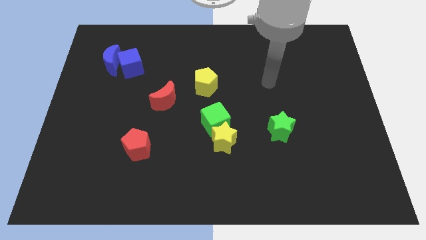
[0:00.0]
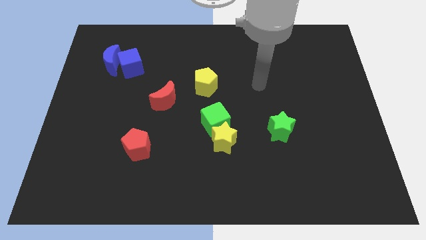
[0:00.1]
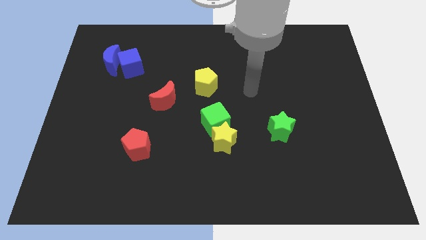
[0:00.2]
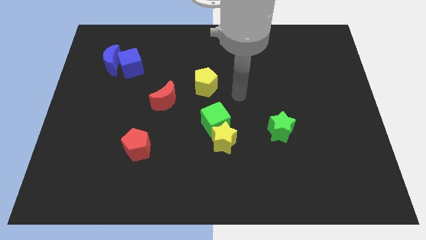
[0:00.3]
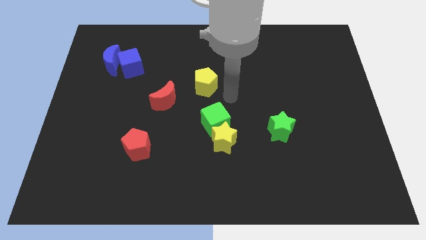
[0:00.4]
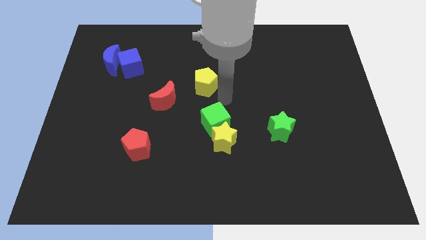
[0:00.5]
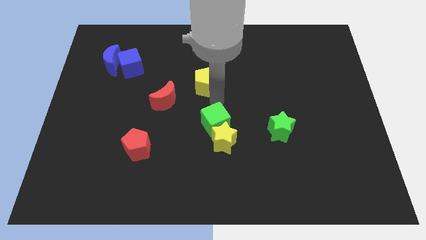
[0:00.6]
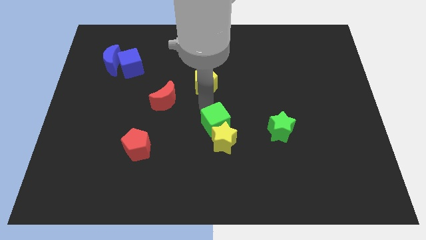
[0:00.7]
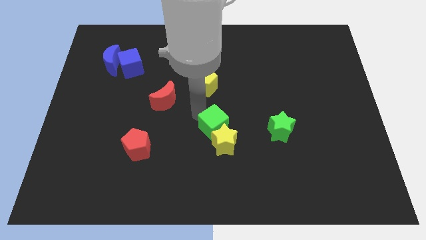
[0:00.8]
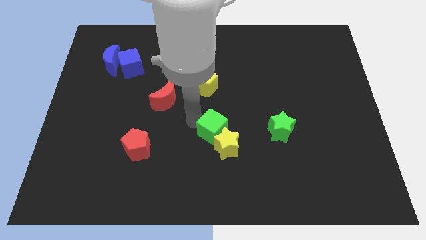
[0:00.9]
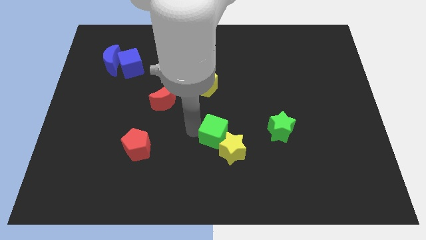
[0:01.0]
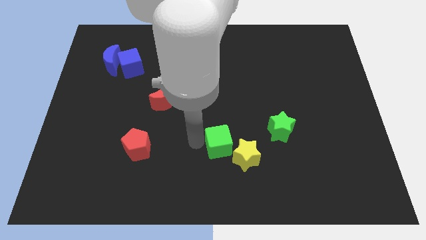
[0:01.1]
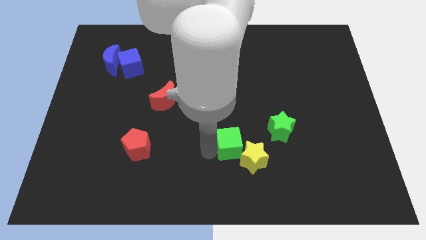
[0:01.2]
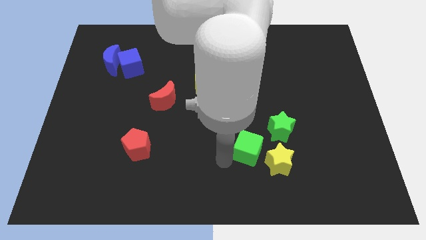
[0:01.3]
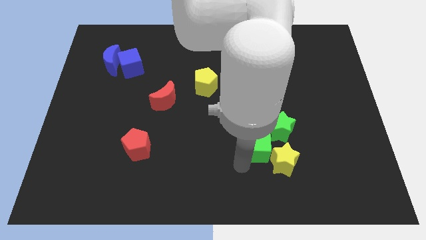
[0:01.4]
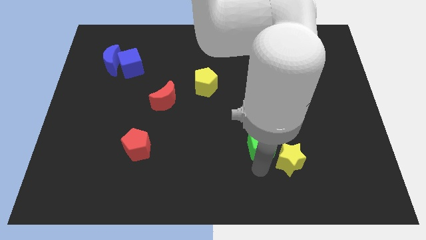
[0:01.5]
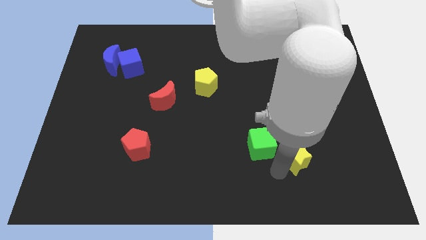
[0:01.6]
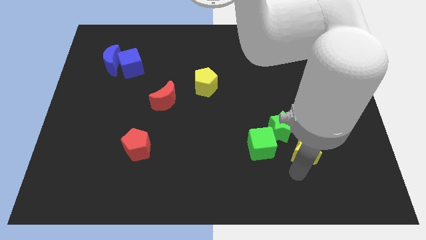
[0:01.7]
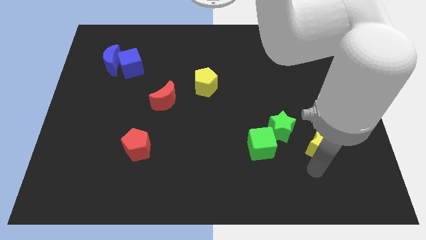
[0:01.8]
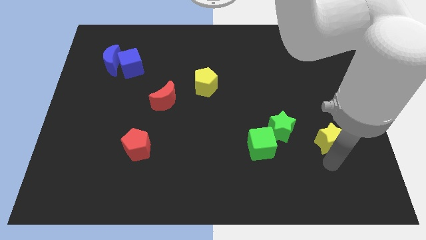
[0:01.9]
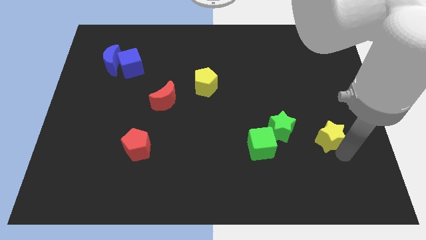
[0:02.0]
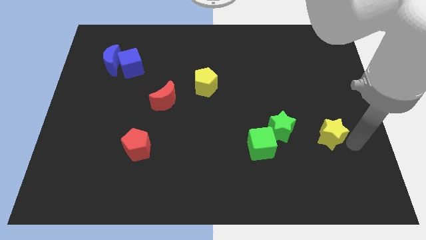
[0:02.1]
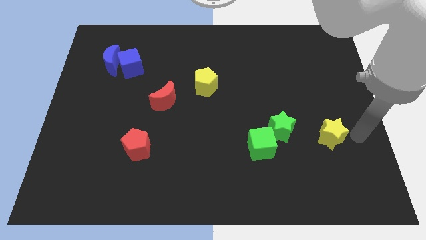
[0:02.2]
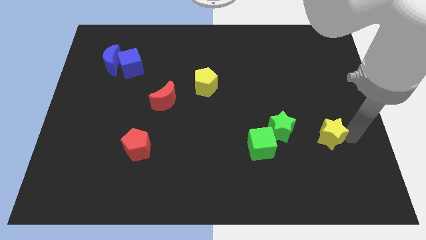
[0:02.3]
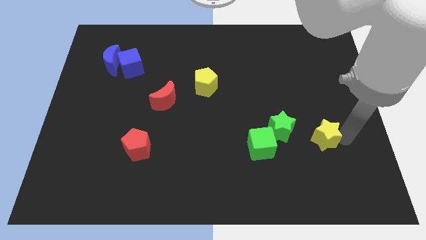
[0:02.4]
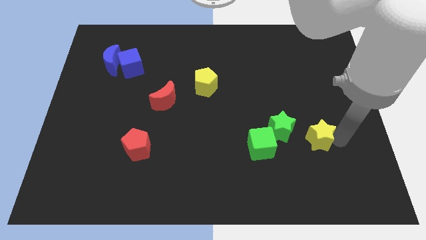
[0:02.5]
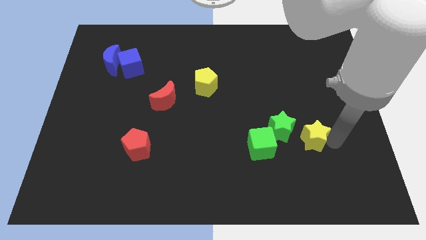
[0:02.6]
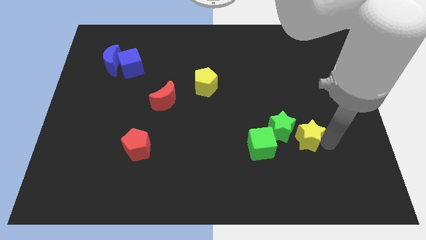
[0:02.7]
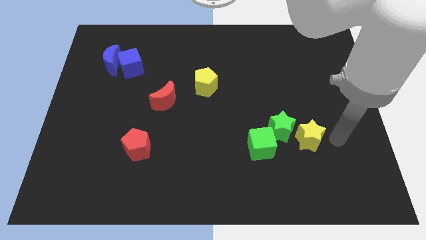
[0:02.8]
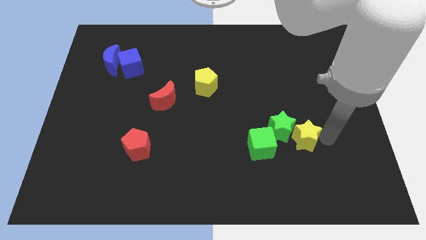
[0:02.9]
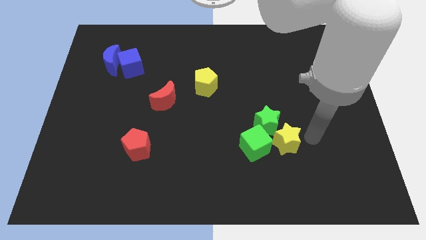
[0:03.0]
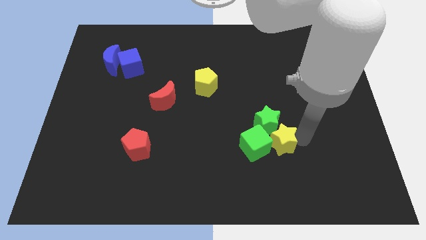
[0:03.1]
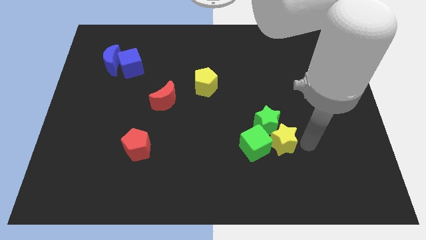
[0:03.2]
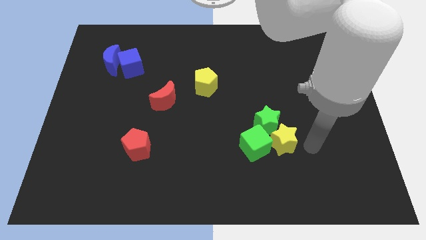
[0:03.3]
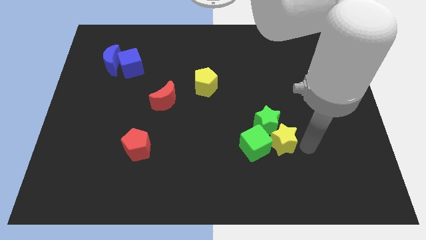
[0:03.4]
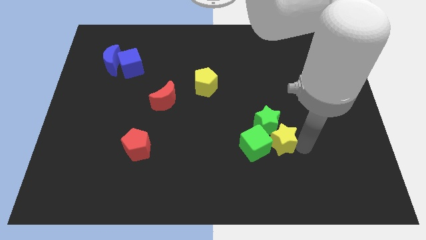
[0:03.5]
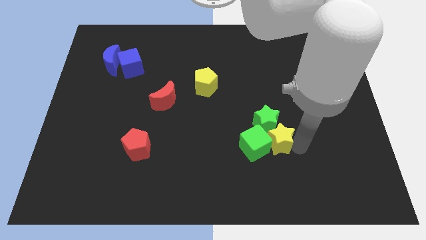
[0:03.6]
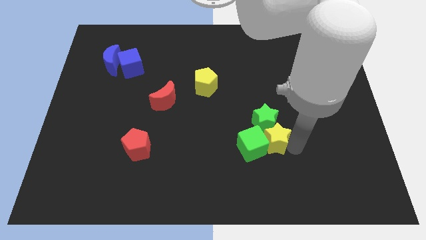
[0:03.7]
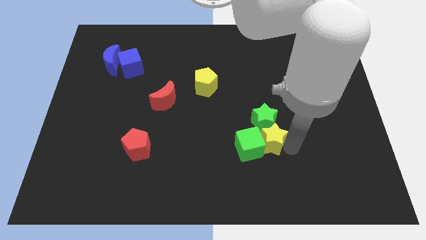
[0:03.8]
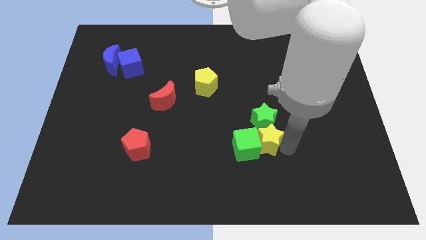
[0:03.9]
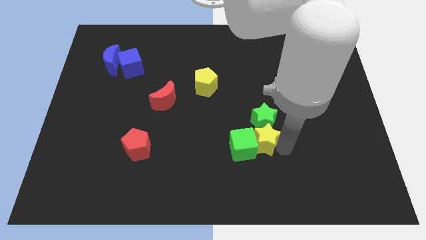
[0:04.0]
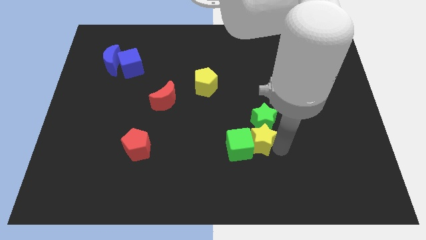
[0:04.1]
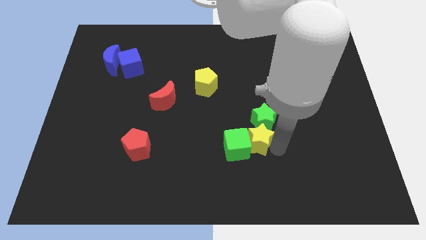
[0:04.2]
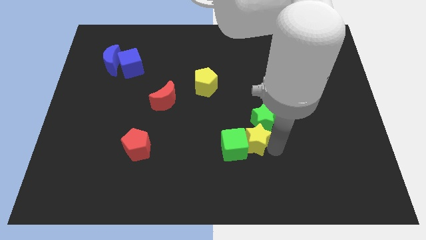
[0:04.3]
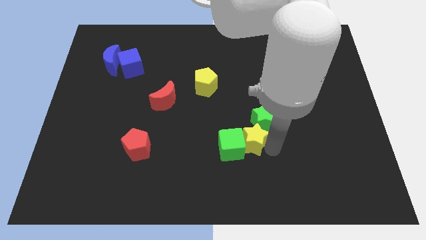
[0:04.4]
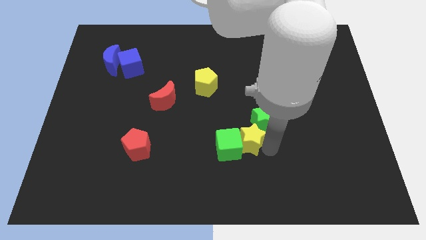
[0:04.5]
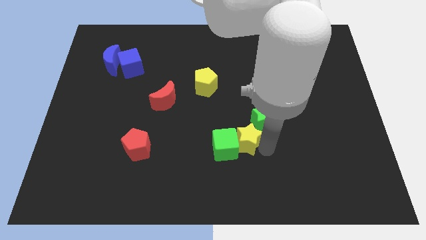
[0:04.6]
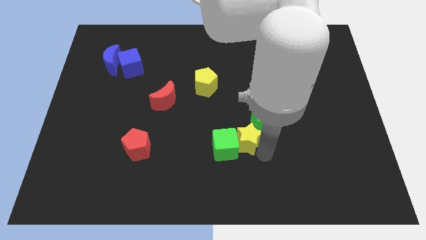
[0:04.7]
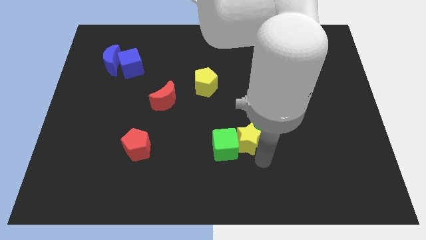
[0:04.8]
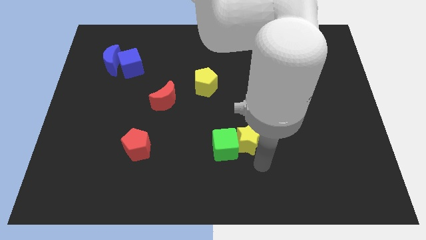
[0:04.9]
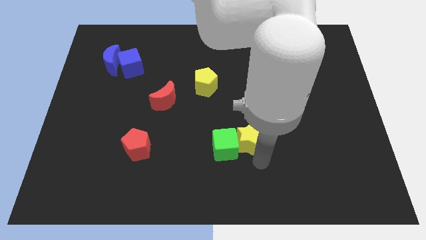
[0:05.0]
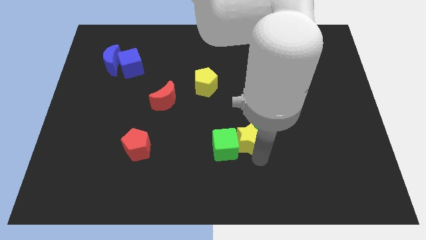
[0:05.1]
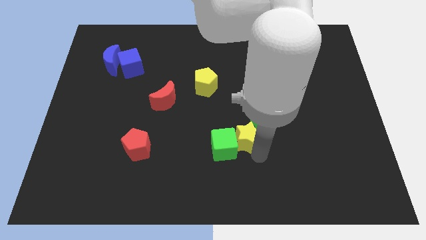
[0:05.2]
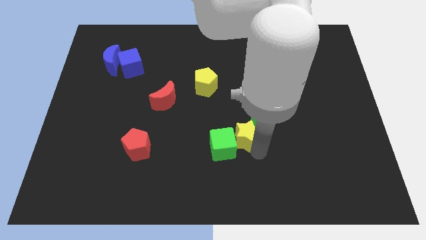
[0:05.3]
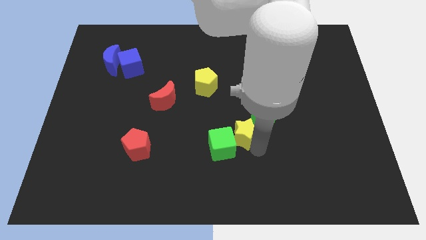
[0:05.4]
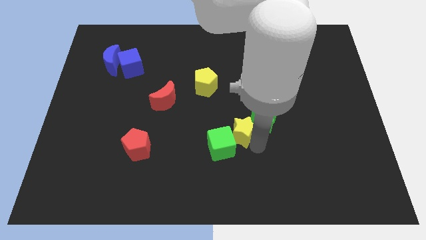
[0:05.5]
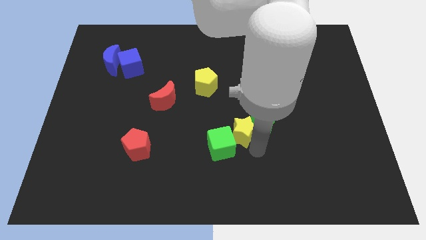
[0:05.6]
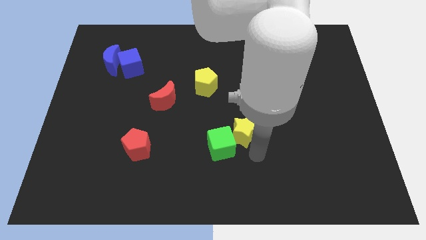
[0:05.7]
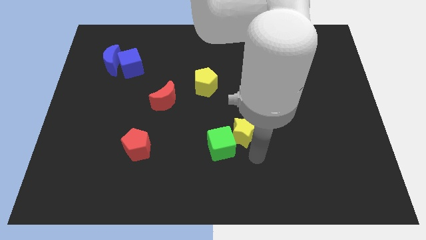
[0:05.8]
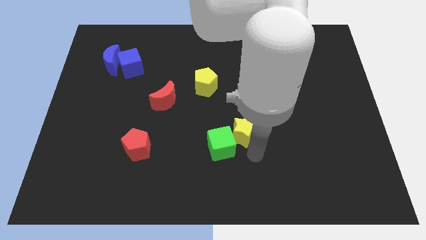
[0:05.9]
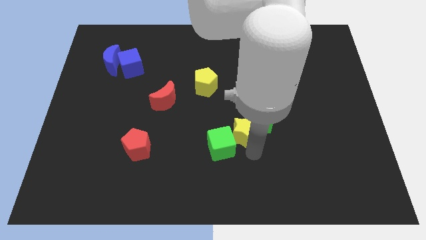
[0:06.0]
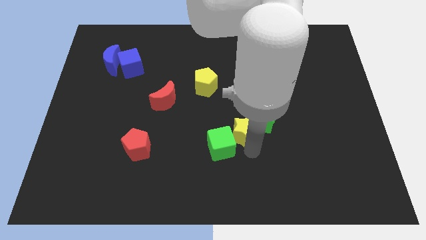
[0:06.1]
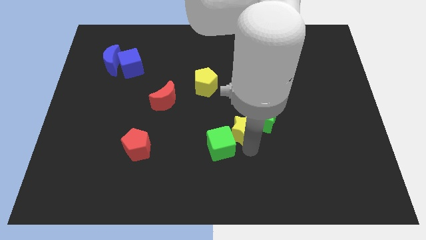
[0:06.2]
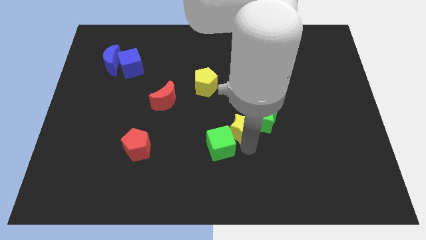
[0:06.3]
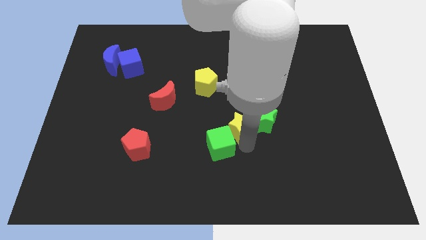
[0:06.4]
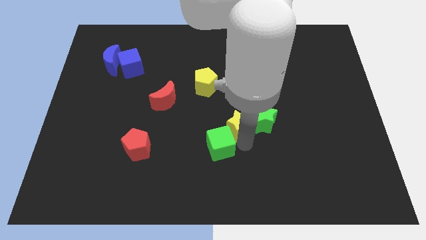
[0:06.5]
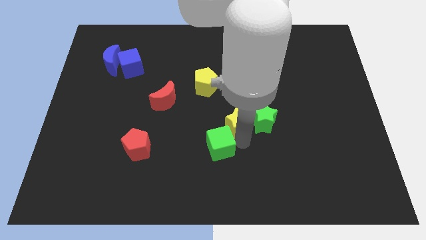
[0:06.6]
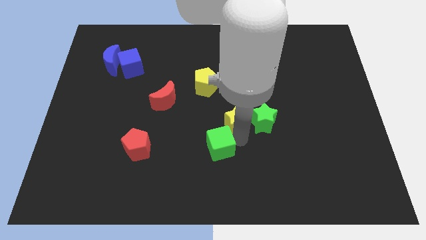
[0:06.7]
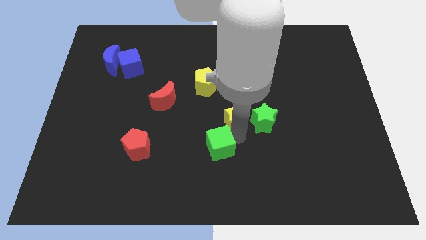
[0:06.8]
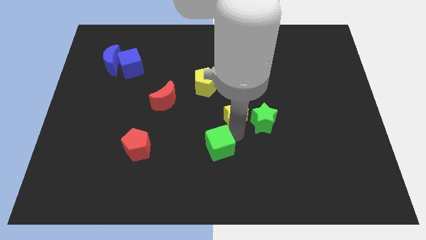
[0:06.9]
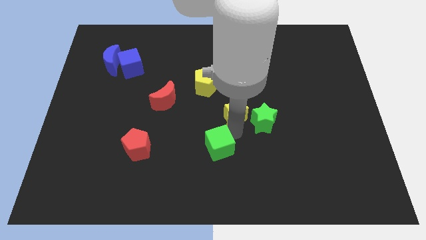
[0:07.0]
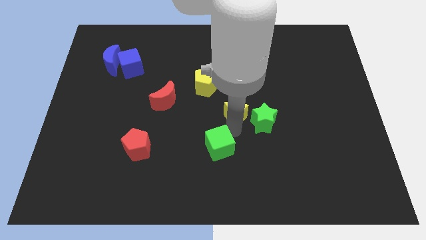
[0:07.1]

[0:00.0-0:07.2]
slide the yellow star a little upwards

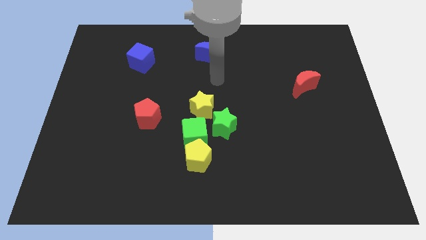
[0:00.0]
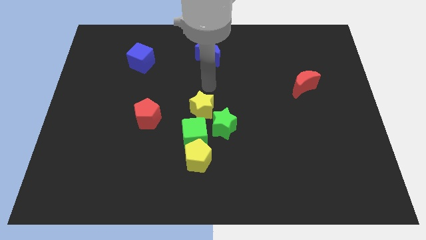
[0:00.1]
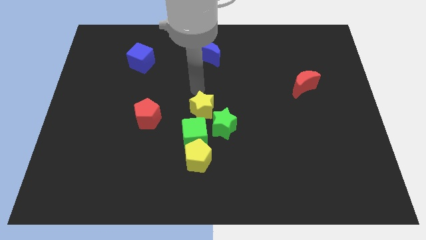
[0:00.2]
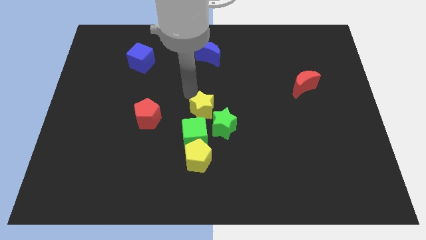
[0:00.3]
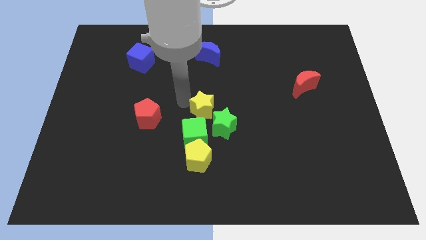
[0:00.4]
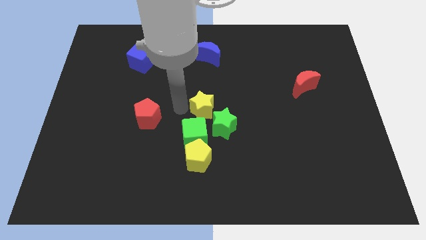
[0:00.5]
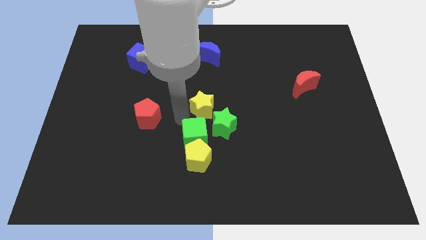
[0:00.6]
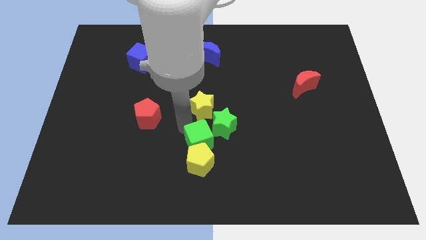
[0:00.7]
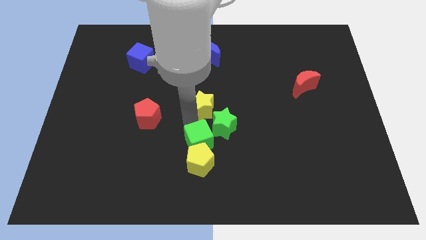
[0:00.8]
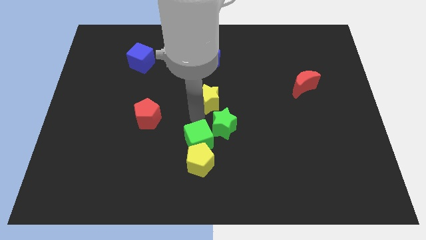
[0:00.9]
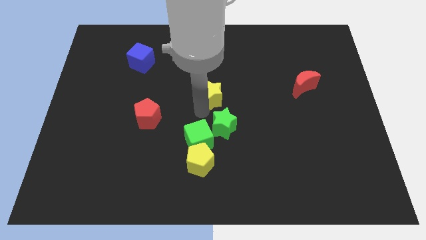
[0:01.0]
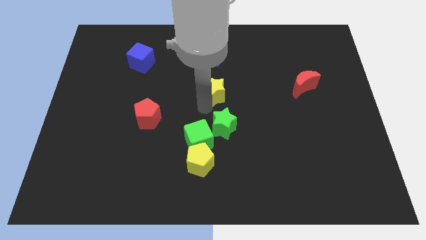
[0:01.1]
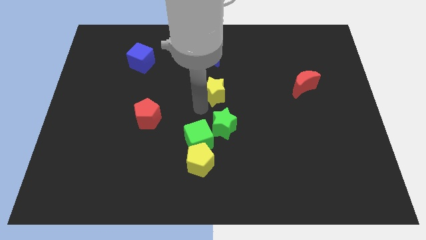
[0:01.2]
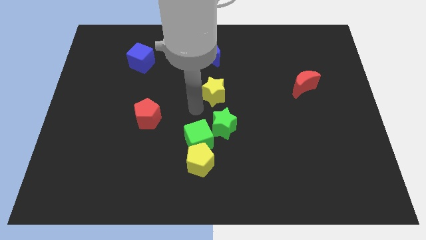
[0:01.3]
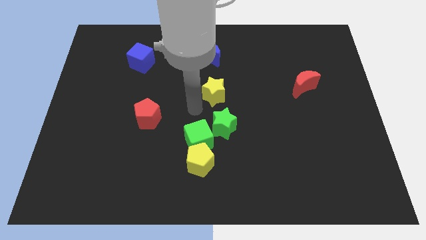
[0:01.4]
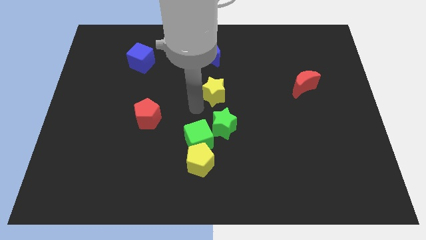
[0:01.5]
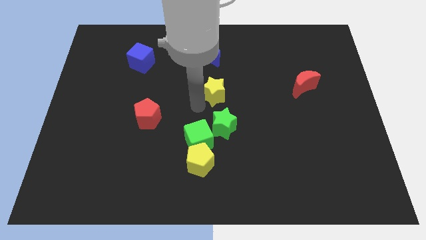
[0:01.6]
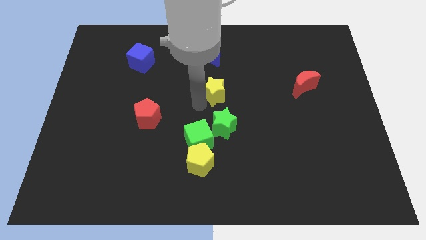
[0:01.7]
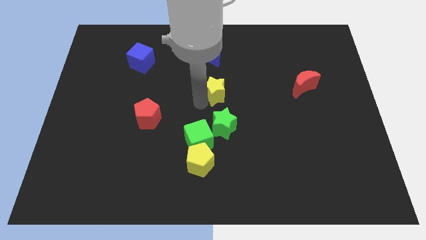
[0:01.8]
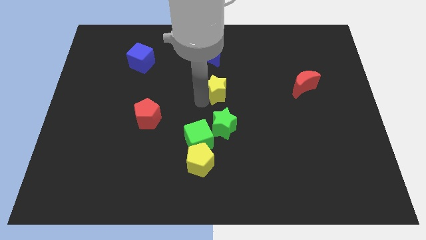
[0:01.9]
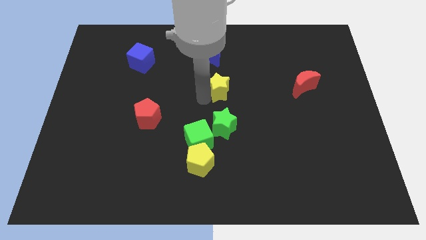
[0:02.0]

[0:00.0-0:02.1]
slightly push the yellow star upwards and to the right diagonally
